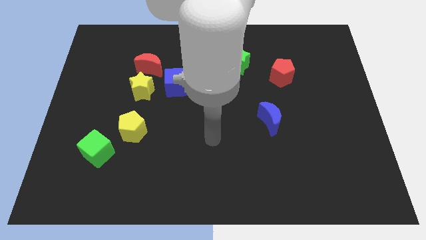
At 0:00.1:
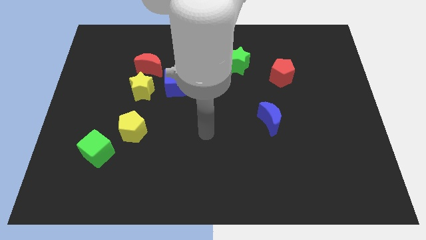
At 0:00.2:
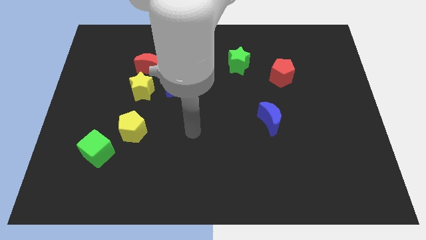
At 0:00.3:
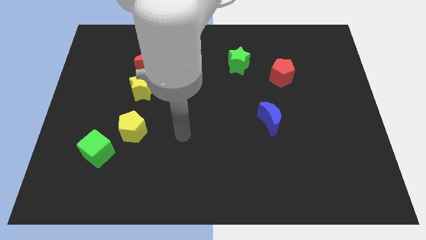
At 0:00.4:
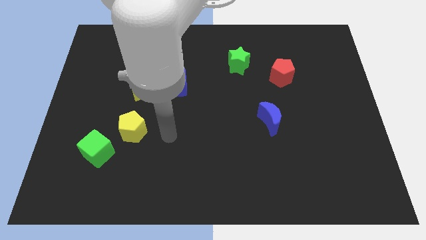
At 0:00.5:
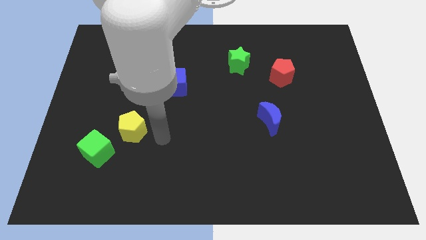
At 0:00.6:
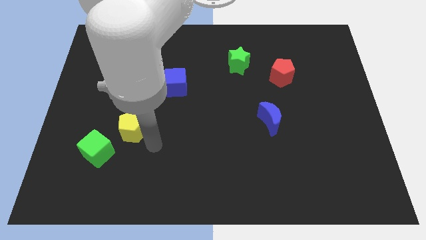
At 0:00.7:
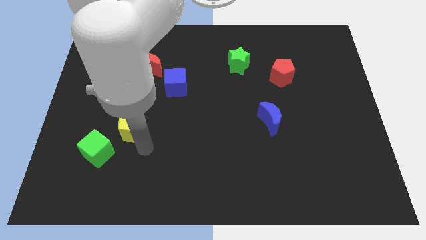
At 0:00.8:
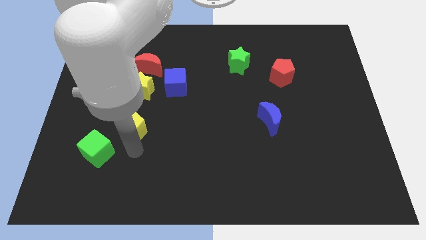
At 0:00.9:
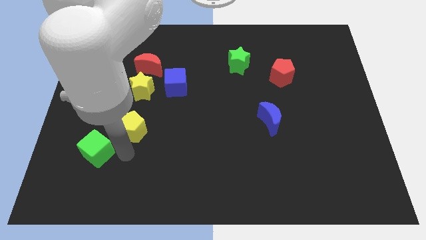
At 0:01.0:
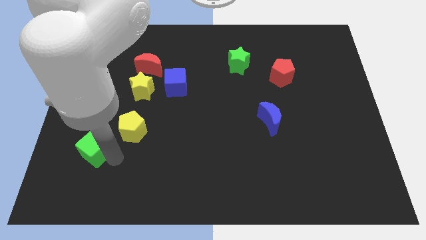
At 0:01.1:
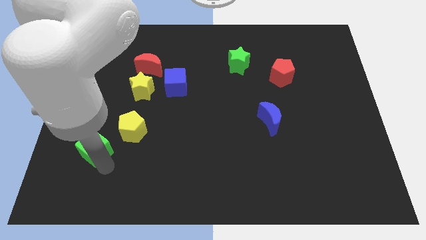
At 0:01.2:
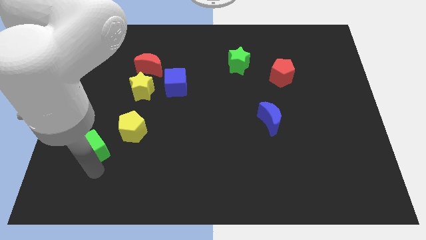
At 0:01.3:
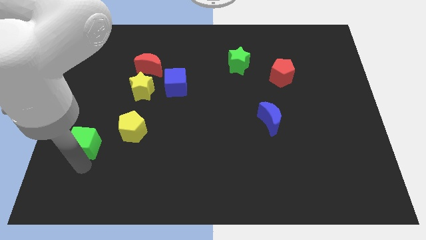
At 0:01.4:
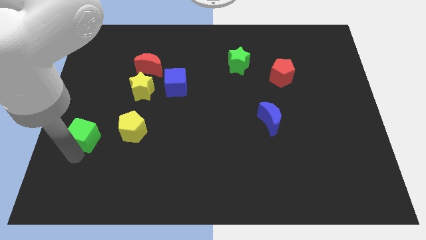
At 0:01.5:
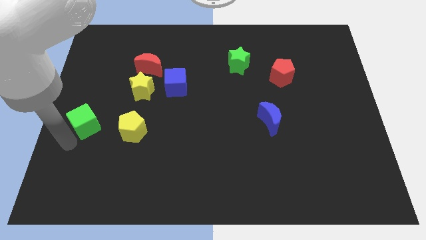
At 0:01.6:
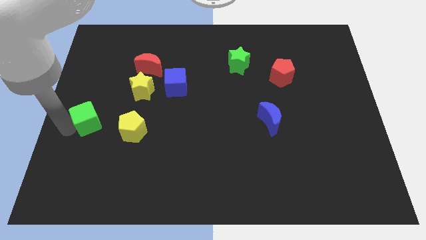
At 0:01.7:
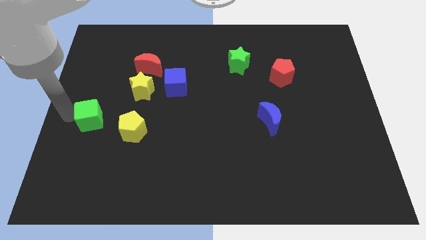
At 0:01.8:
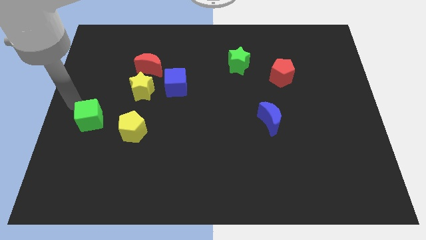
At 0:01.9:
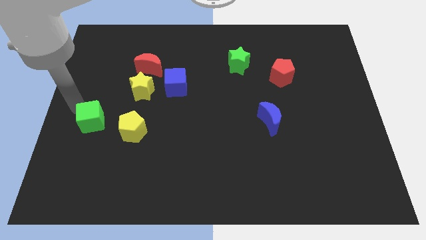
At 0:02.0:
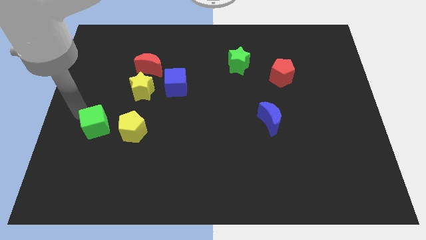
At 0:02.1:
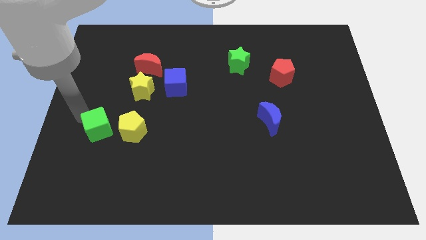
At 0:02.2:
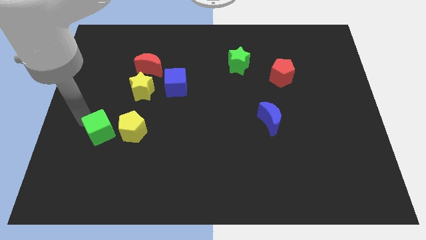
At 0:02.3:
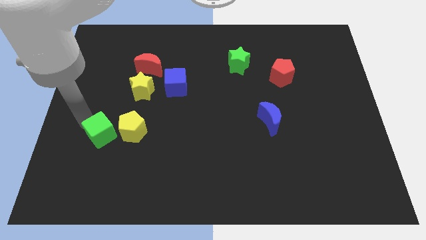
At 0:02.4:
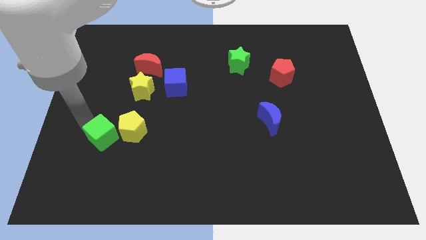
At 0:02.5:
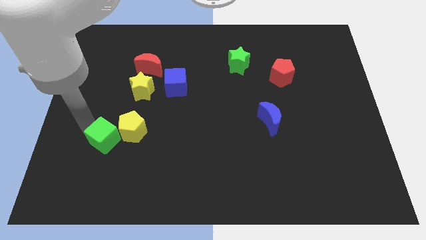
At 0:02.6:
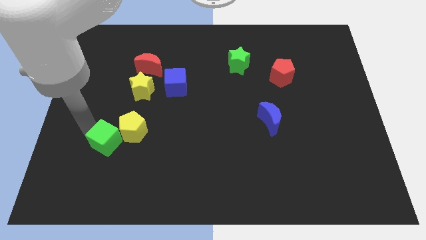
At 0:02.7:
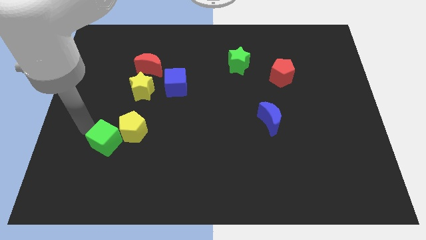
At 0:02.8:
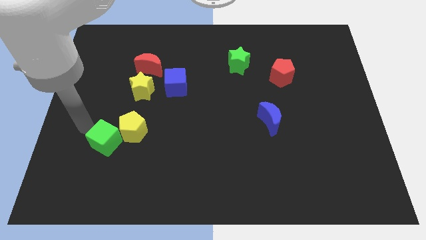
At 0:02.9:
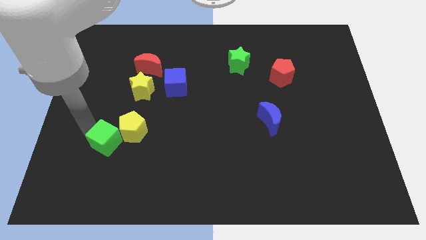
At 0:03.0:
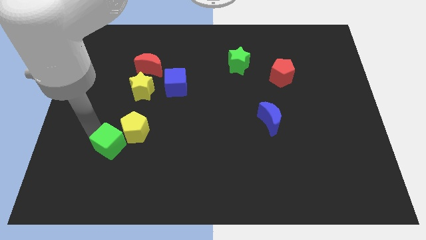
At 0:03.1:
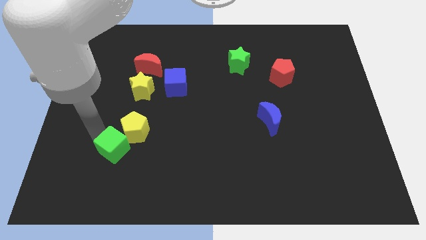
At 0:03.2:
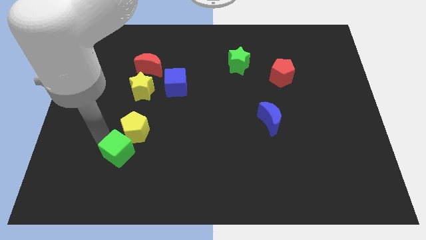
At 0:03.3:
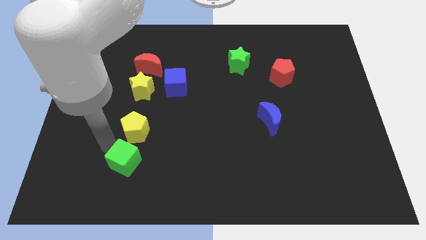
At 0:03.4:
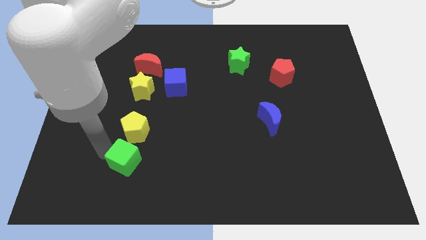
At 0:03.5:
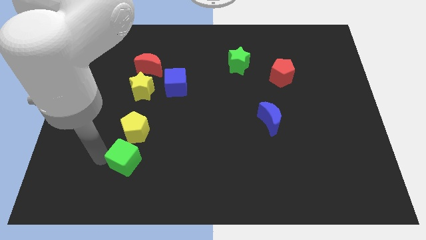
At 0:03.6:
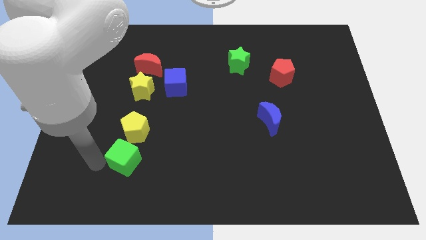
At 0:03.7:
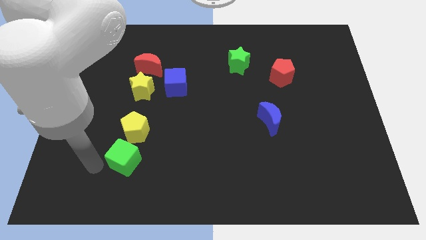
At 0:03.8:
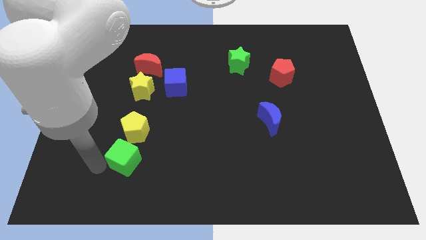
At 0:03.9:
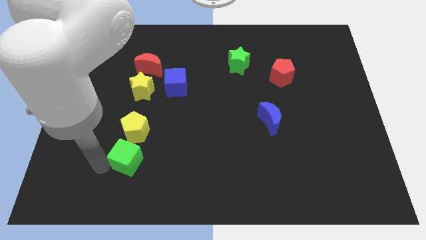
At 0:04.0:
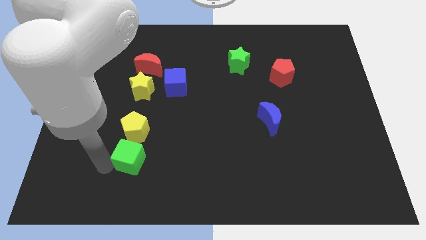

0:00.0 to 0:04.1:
slightly move the green cube right

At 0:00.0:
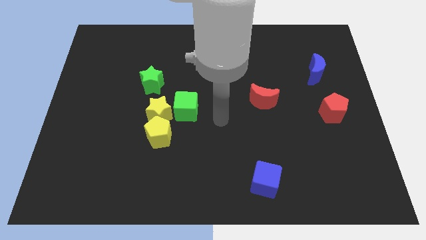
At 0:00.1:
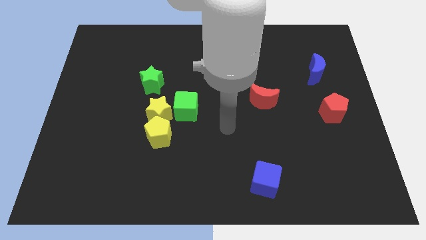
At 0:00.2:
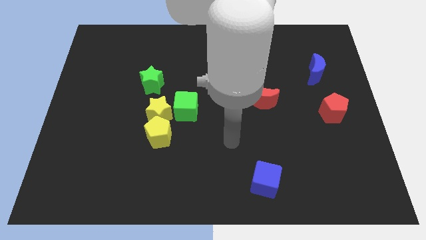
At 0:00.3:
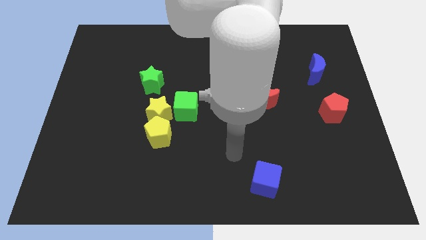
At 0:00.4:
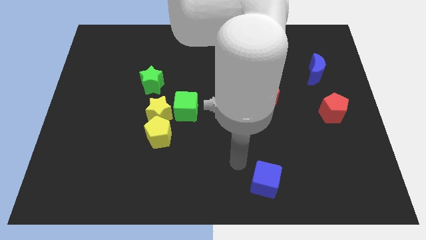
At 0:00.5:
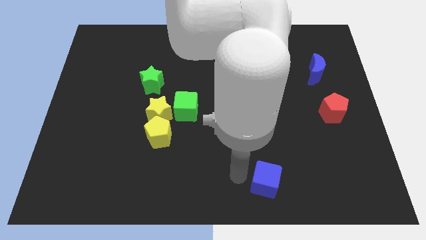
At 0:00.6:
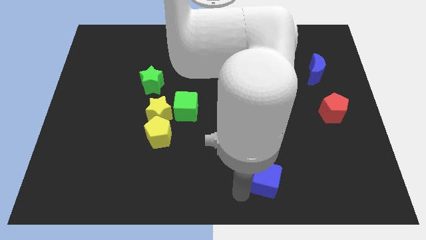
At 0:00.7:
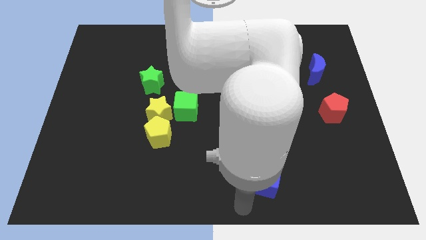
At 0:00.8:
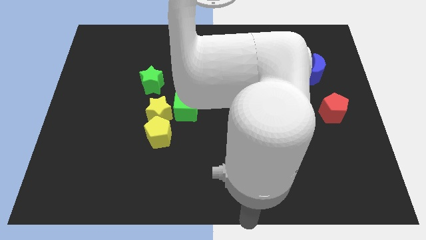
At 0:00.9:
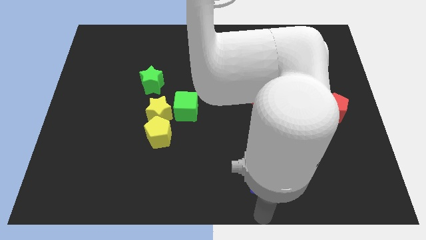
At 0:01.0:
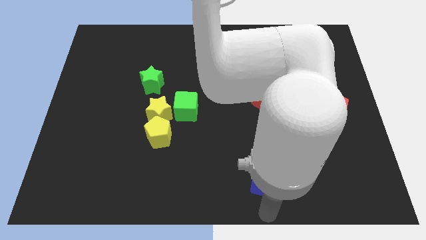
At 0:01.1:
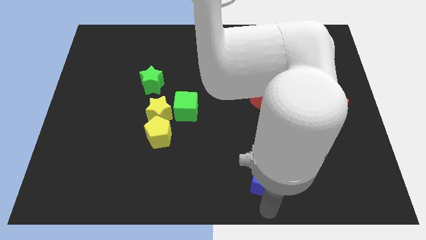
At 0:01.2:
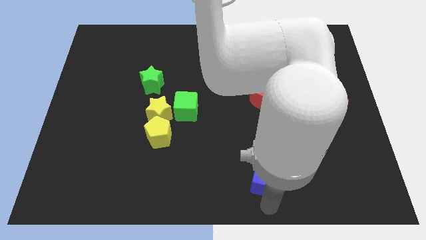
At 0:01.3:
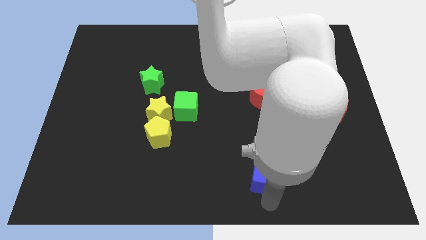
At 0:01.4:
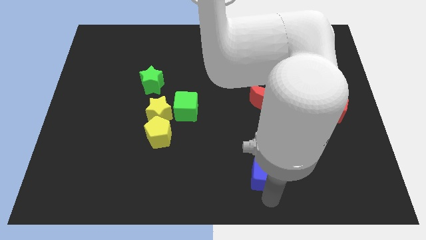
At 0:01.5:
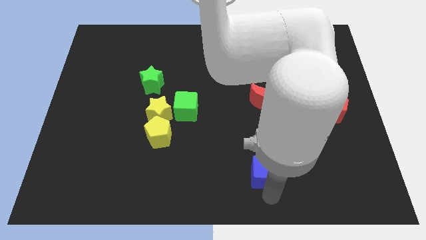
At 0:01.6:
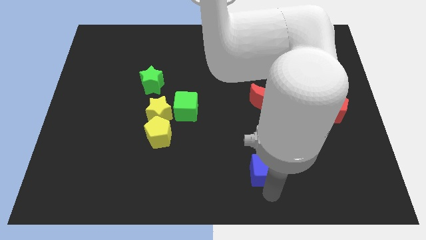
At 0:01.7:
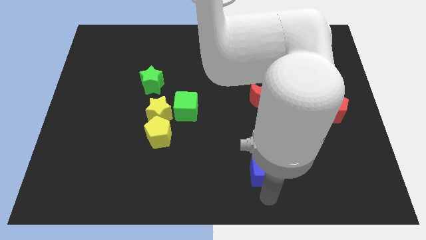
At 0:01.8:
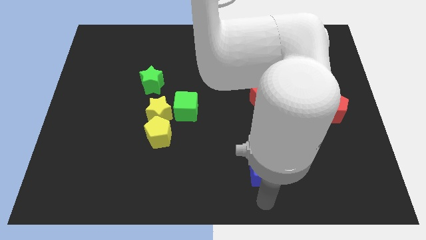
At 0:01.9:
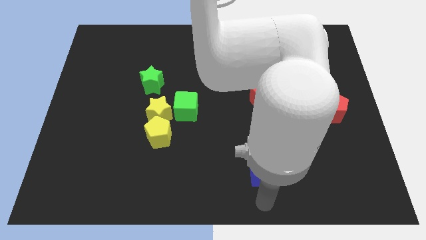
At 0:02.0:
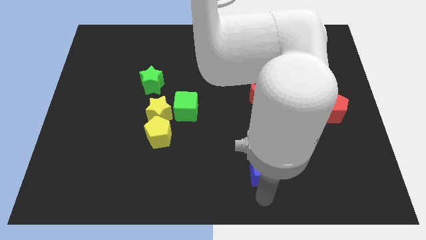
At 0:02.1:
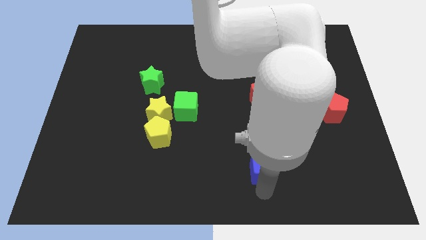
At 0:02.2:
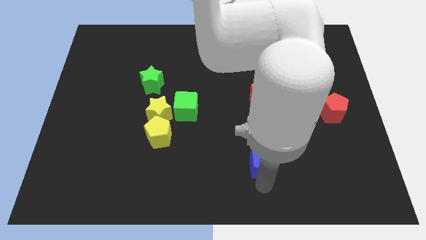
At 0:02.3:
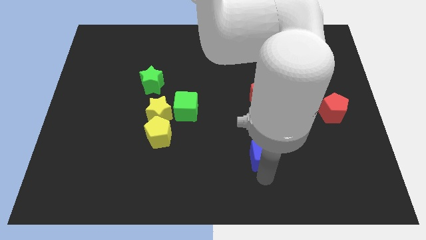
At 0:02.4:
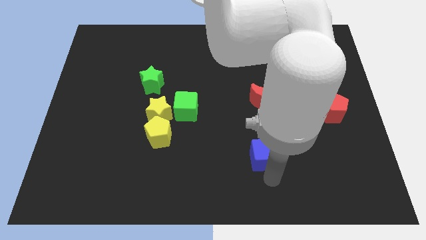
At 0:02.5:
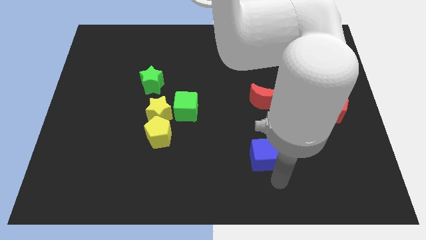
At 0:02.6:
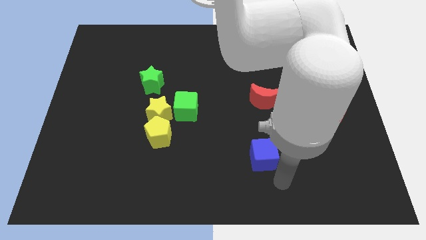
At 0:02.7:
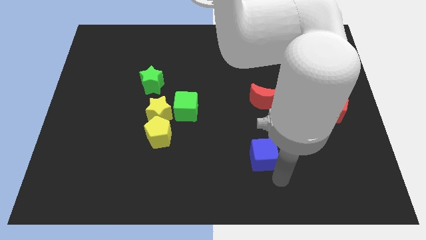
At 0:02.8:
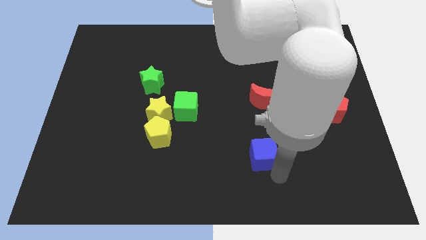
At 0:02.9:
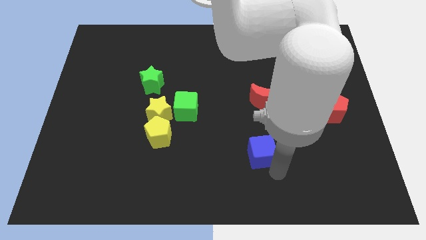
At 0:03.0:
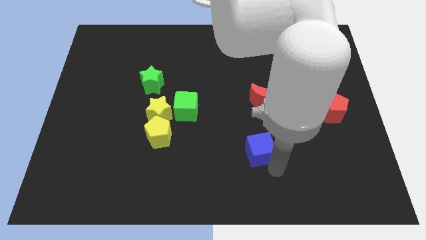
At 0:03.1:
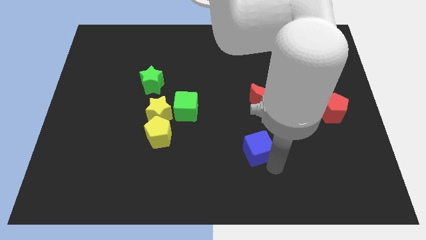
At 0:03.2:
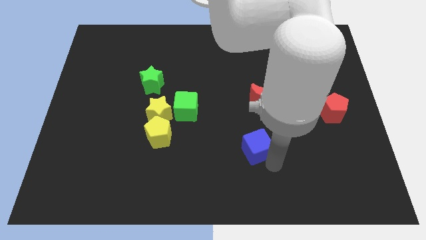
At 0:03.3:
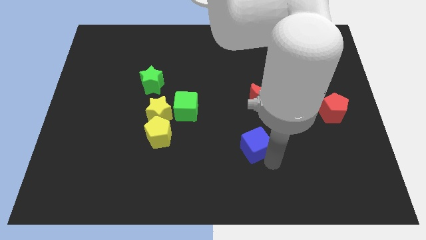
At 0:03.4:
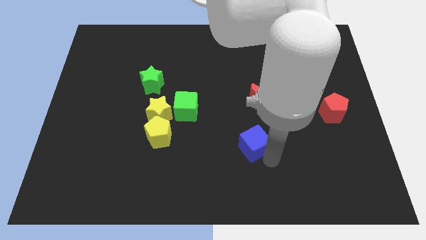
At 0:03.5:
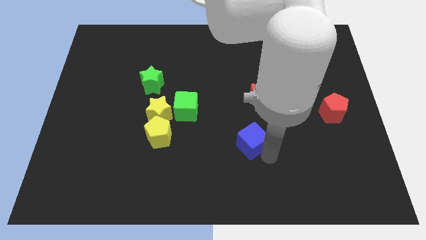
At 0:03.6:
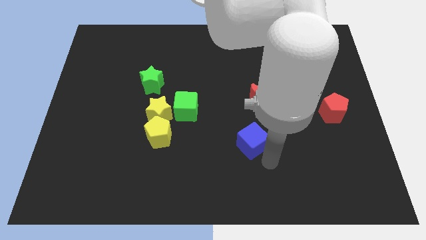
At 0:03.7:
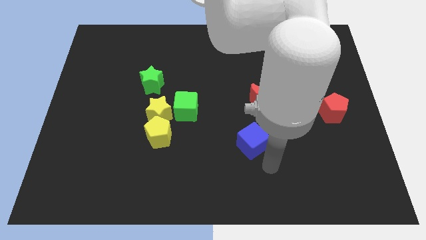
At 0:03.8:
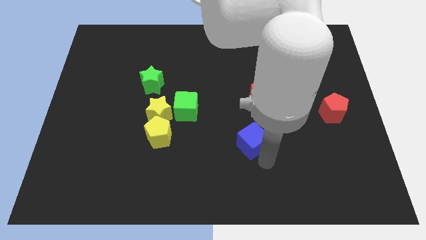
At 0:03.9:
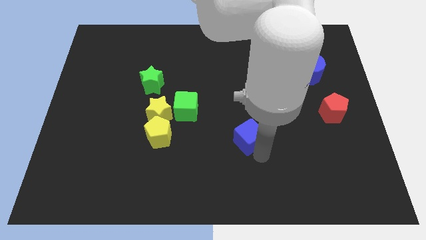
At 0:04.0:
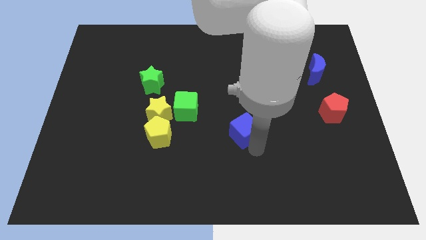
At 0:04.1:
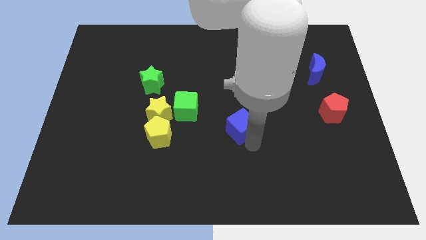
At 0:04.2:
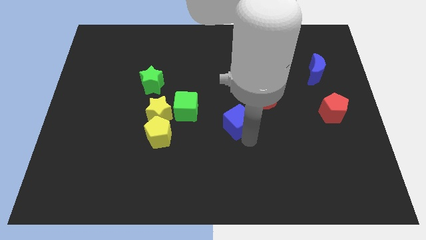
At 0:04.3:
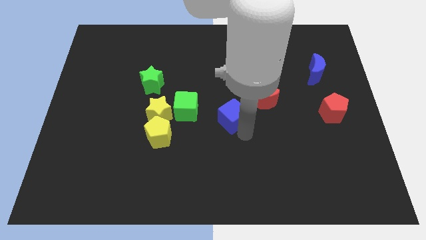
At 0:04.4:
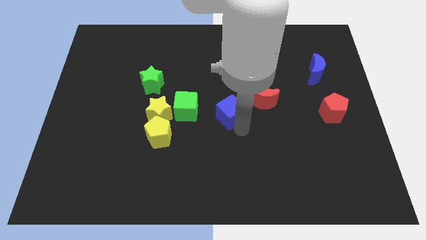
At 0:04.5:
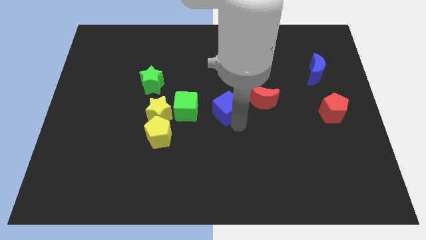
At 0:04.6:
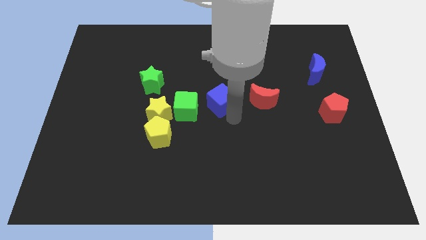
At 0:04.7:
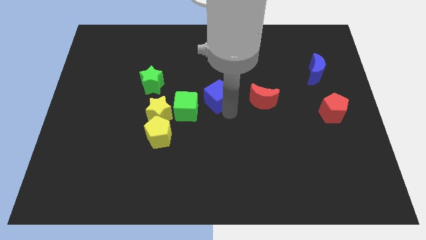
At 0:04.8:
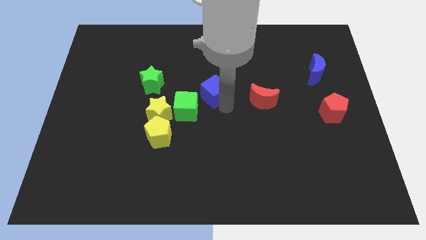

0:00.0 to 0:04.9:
slide the blue cube up and to the left
